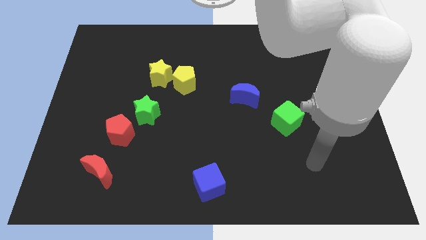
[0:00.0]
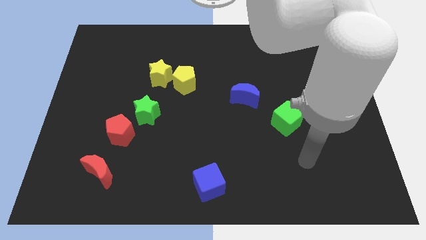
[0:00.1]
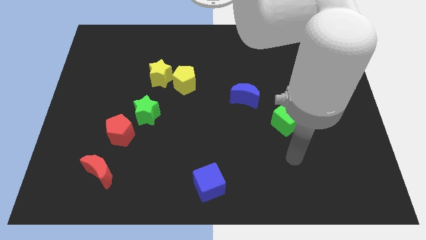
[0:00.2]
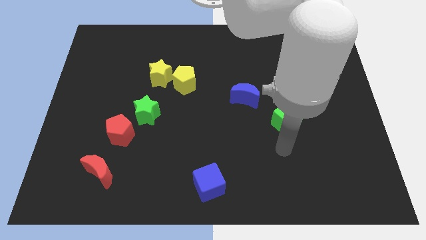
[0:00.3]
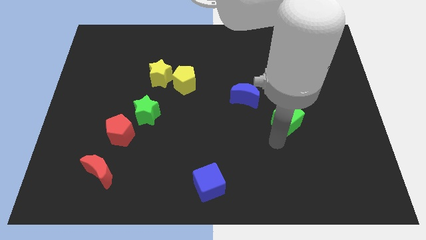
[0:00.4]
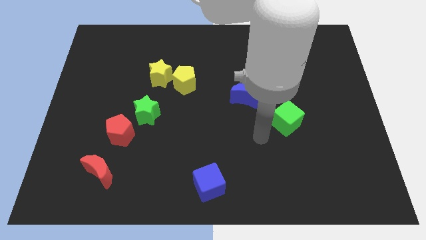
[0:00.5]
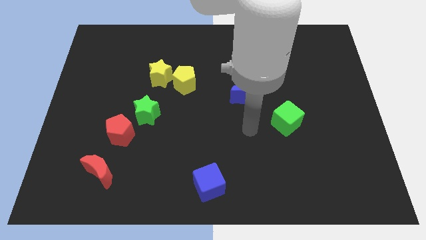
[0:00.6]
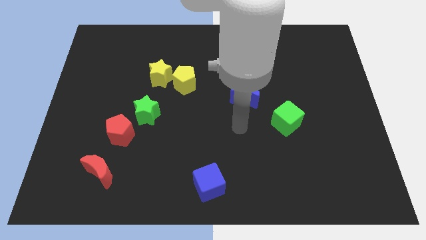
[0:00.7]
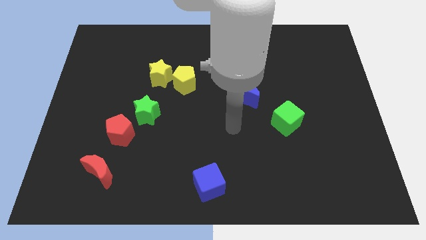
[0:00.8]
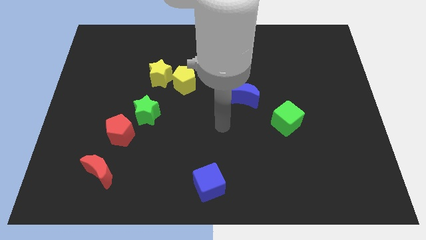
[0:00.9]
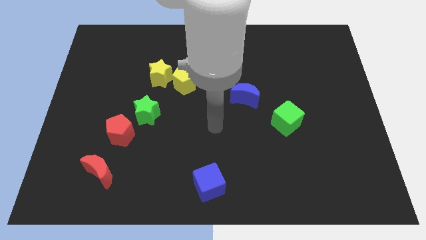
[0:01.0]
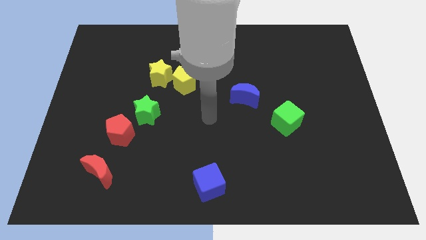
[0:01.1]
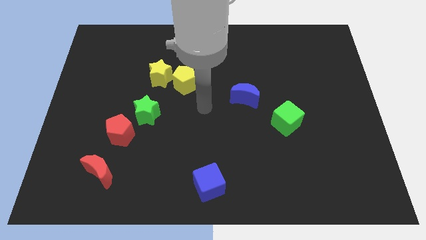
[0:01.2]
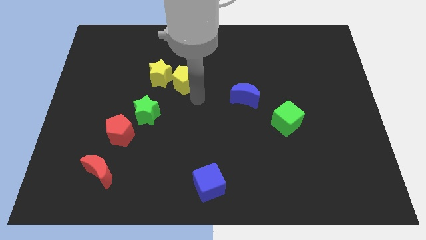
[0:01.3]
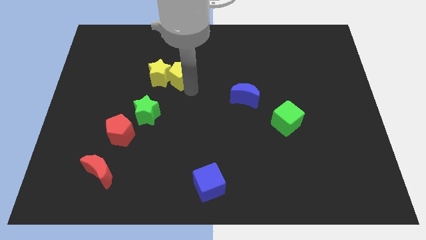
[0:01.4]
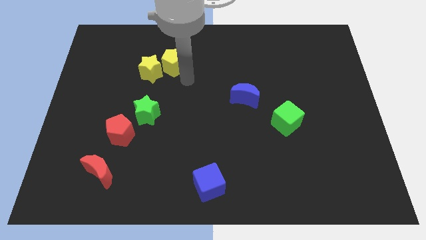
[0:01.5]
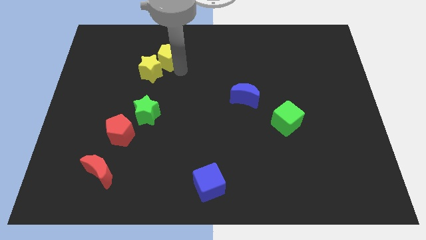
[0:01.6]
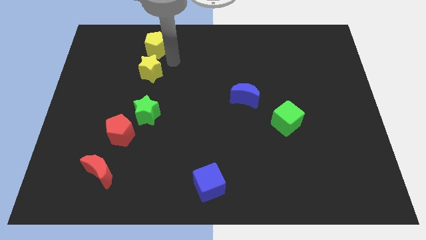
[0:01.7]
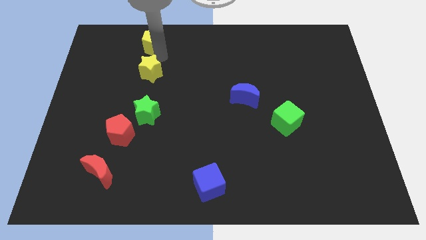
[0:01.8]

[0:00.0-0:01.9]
pull the yellow star apart from the yellow pentagon

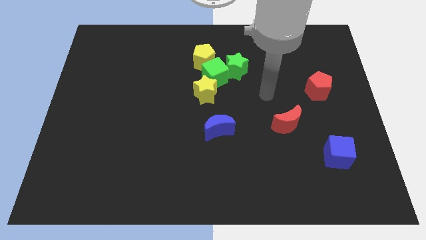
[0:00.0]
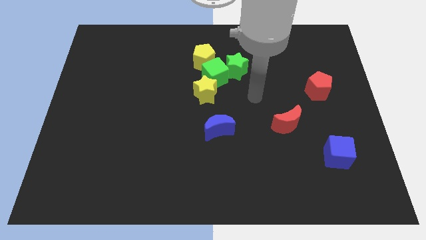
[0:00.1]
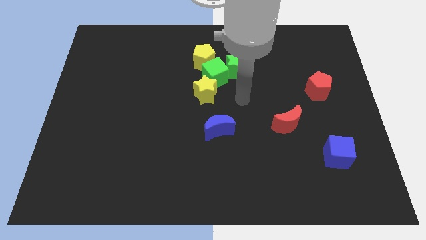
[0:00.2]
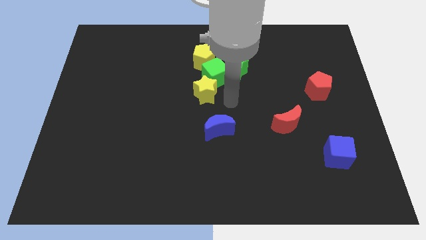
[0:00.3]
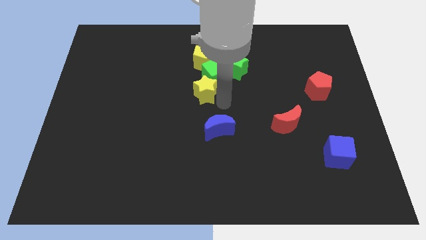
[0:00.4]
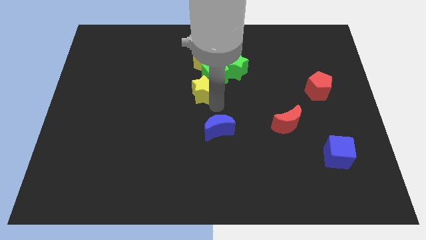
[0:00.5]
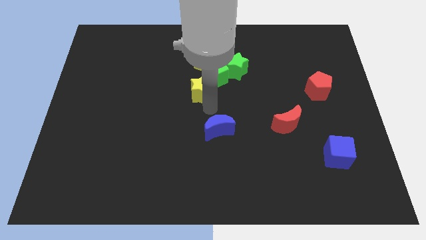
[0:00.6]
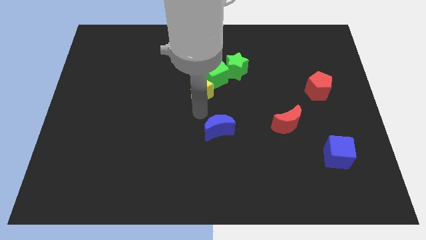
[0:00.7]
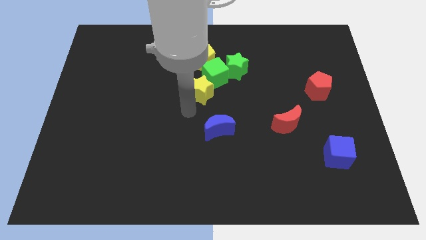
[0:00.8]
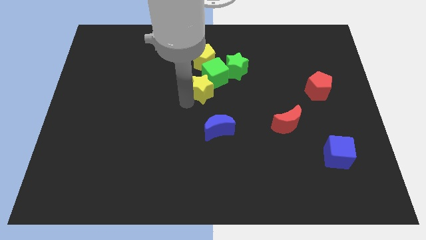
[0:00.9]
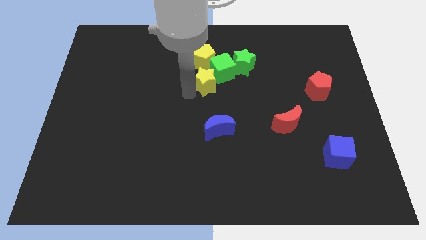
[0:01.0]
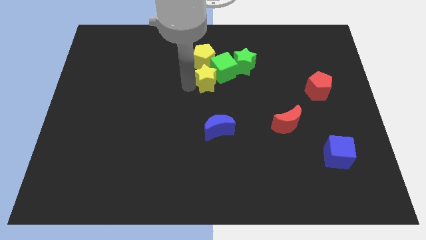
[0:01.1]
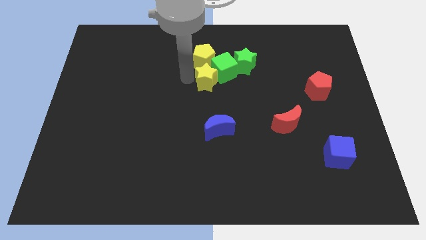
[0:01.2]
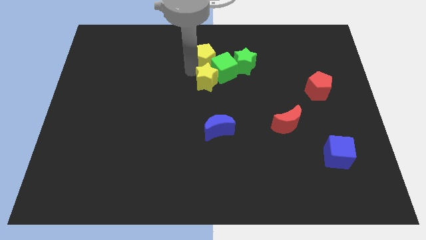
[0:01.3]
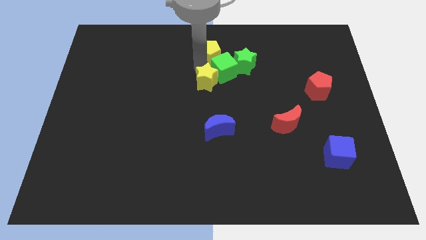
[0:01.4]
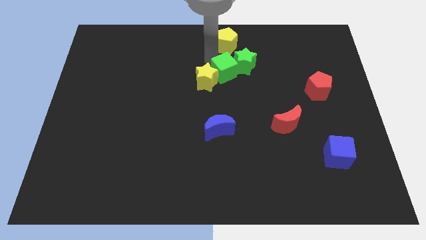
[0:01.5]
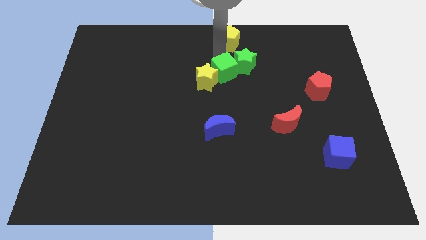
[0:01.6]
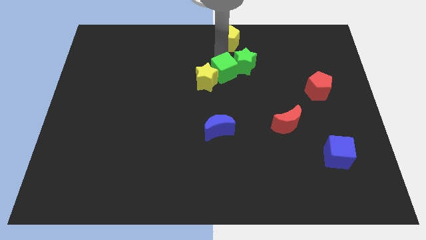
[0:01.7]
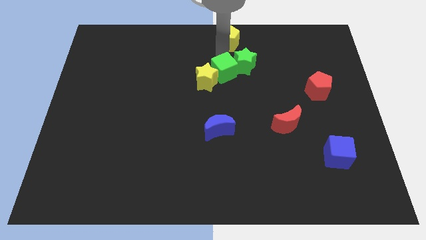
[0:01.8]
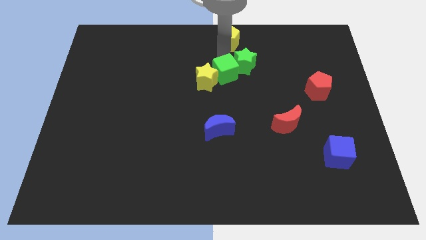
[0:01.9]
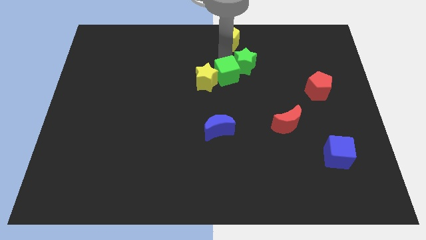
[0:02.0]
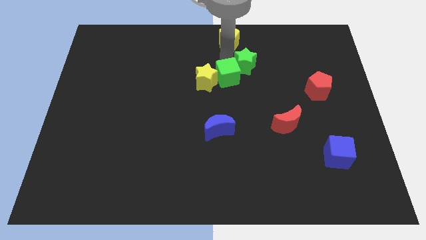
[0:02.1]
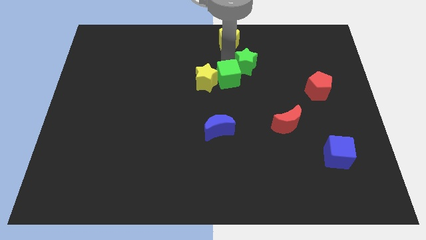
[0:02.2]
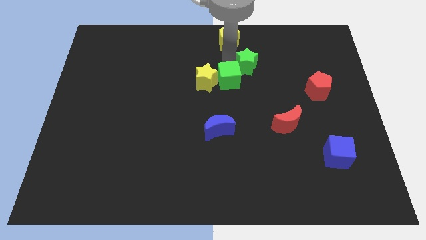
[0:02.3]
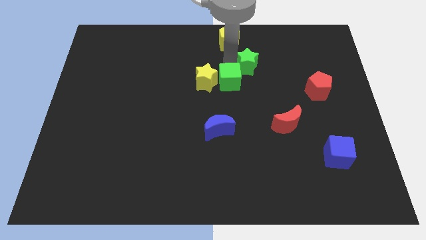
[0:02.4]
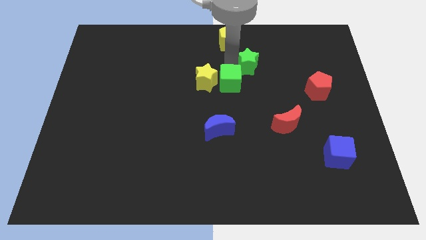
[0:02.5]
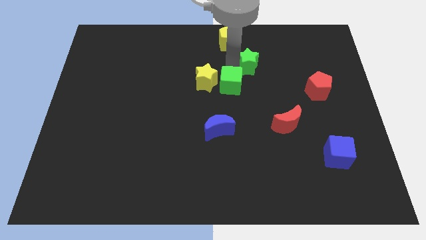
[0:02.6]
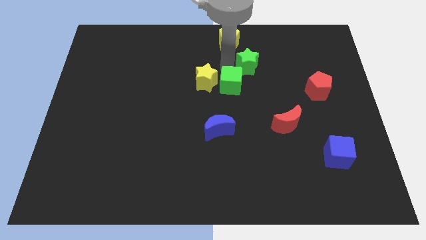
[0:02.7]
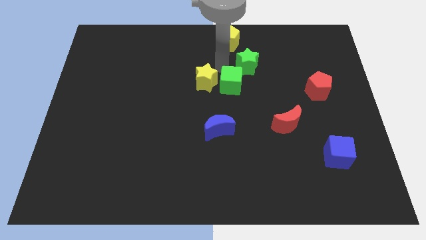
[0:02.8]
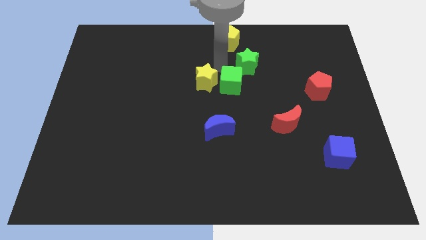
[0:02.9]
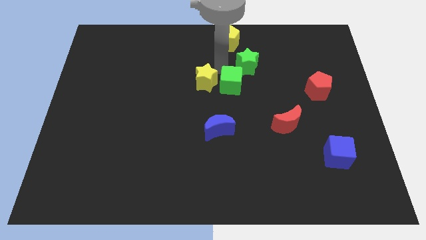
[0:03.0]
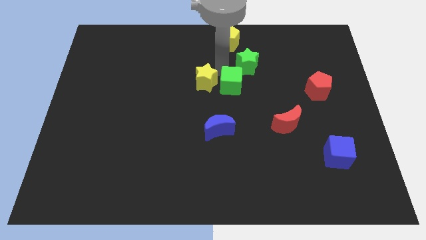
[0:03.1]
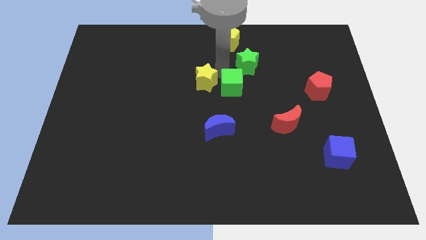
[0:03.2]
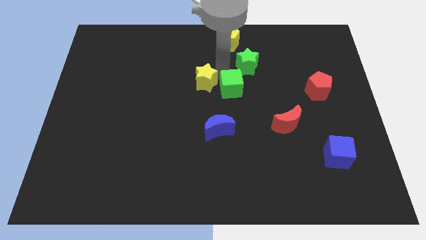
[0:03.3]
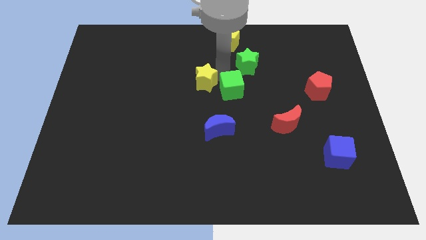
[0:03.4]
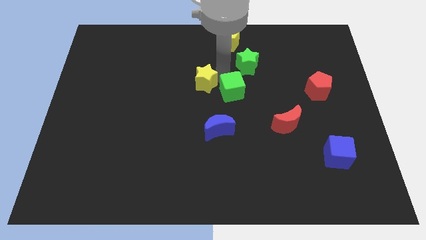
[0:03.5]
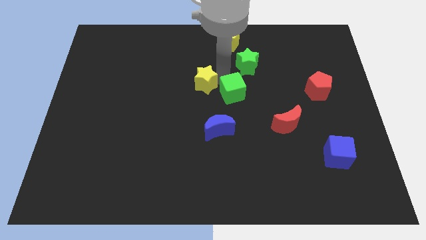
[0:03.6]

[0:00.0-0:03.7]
separate the green cube from the group

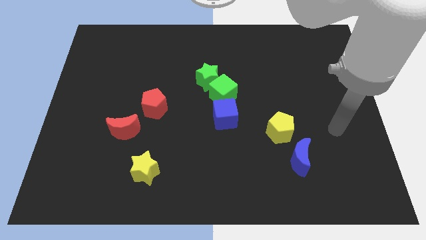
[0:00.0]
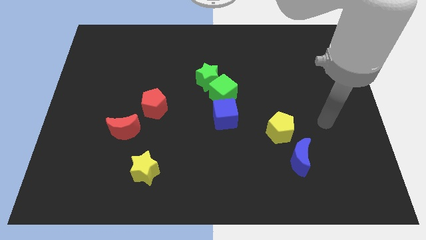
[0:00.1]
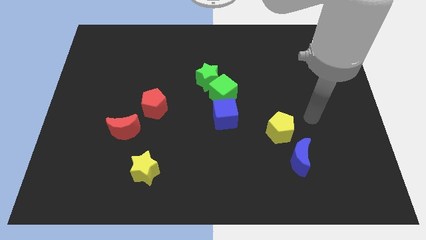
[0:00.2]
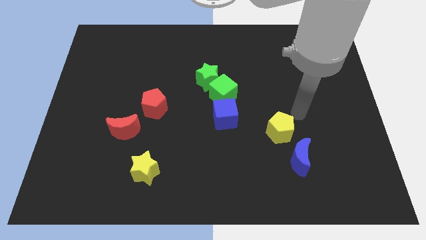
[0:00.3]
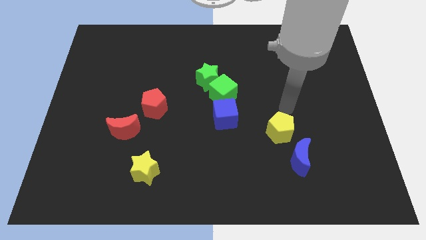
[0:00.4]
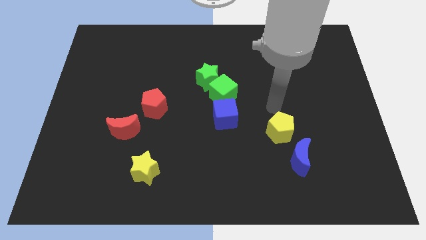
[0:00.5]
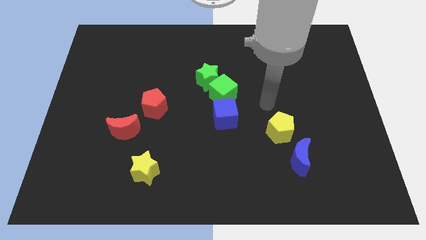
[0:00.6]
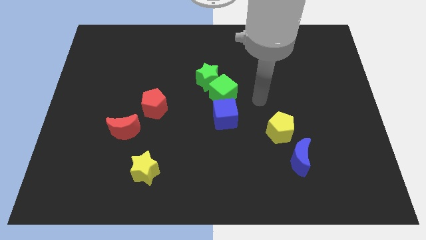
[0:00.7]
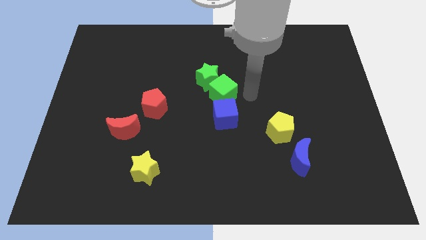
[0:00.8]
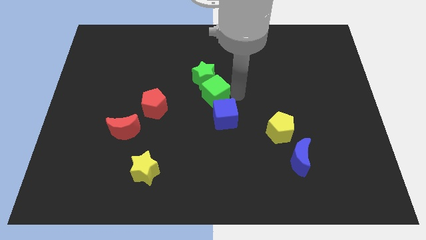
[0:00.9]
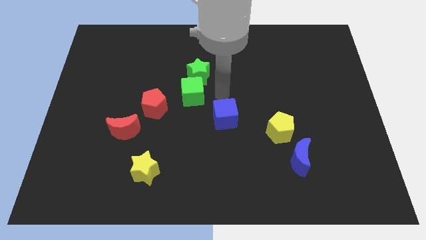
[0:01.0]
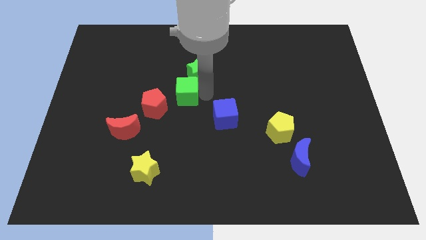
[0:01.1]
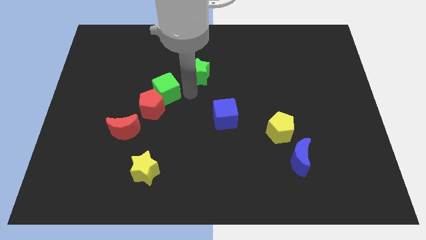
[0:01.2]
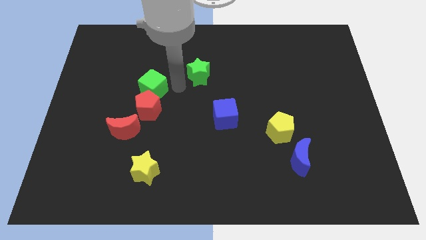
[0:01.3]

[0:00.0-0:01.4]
separate the green star from the green cube

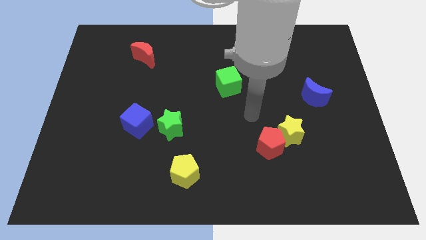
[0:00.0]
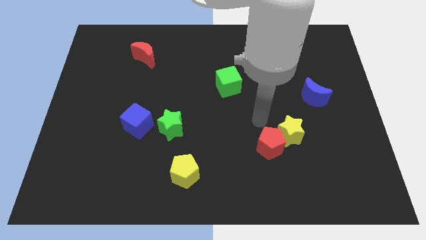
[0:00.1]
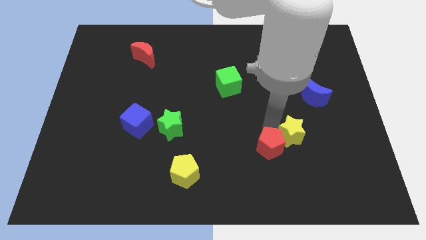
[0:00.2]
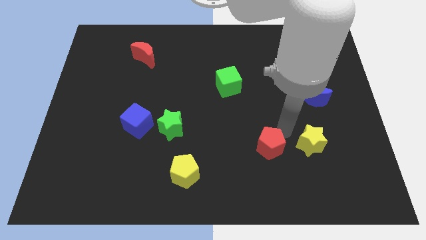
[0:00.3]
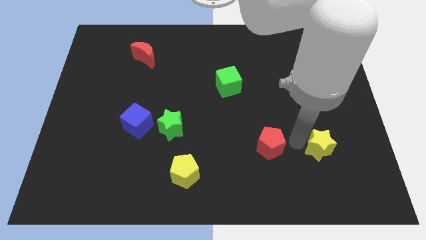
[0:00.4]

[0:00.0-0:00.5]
pull the red pentagon apart from the yellow star

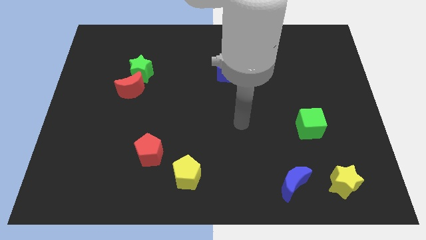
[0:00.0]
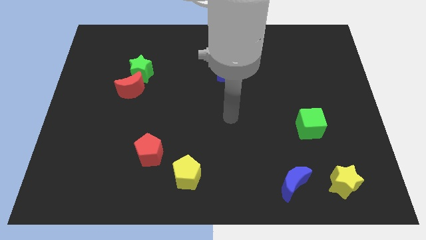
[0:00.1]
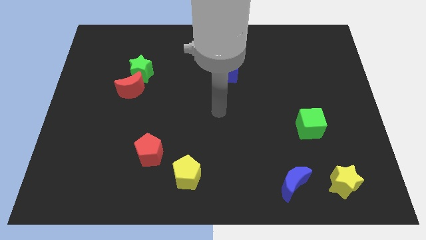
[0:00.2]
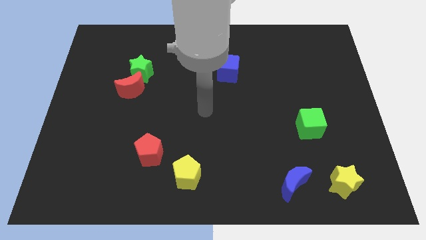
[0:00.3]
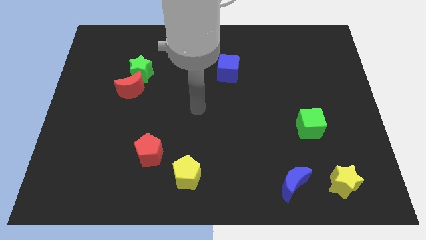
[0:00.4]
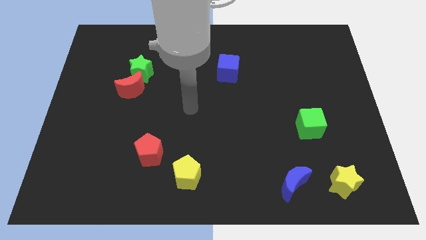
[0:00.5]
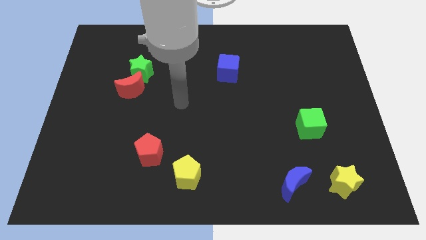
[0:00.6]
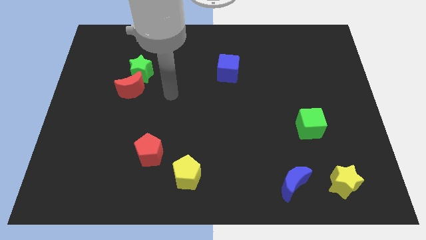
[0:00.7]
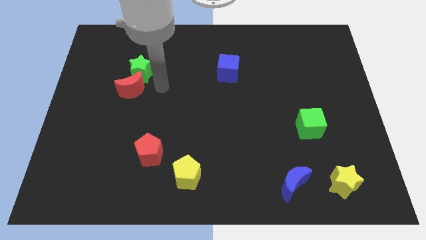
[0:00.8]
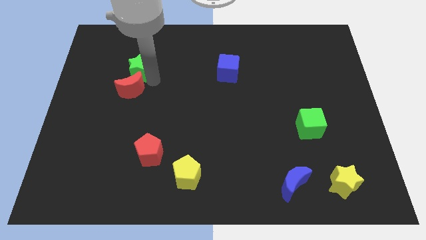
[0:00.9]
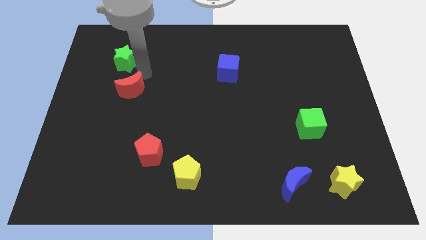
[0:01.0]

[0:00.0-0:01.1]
pull the red moon apart from the green star

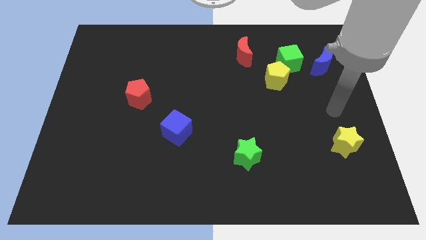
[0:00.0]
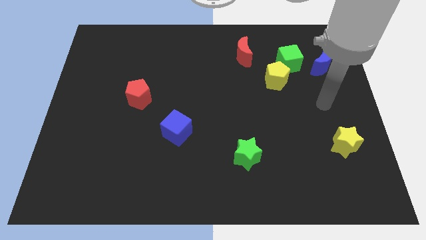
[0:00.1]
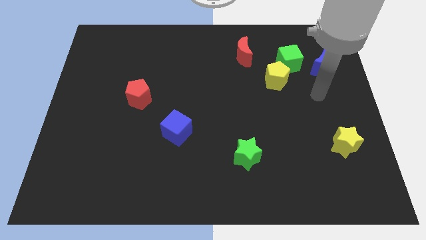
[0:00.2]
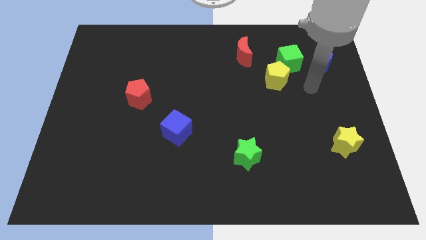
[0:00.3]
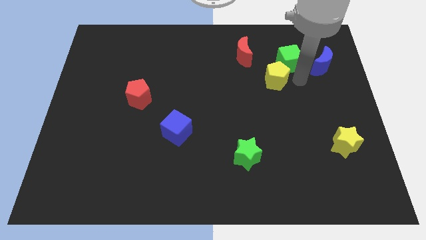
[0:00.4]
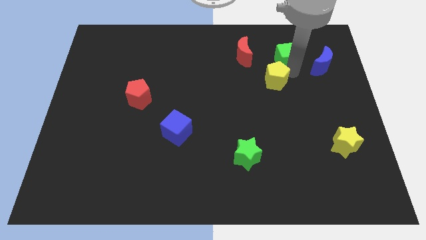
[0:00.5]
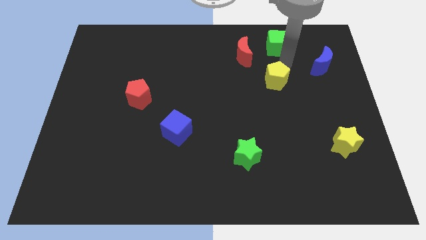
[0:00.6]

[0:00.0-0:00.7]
pull the yellow pentagon apart from the green cube
